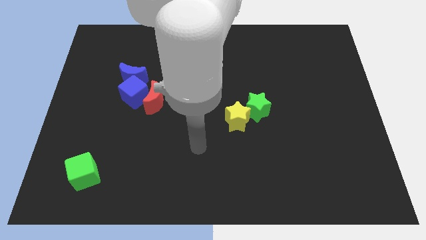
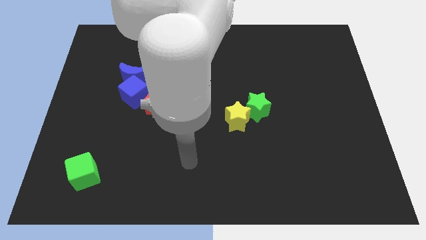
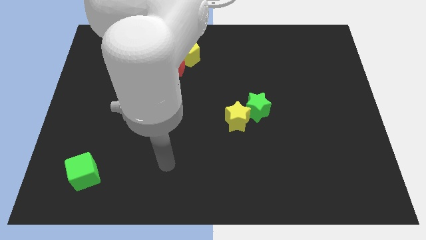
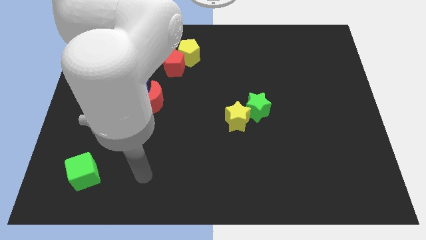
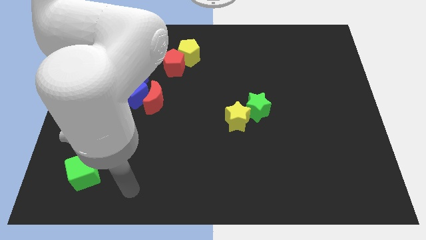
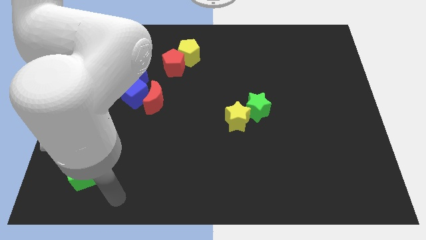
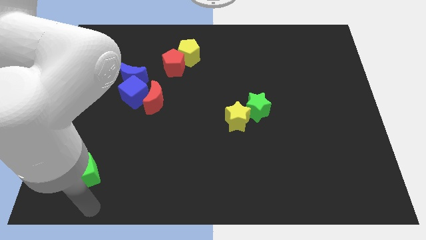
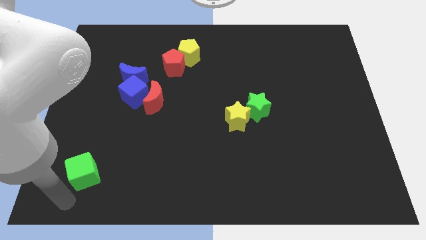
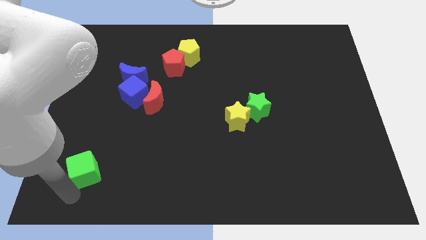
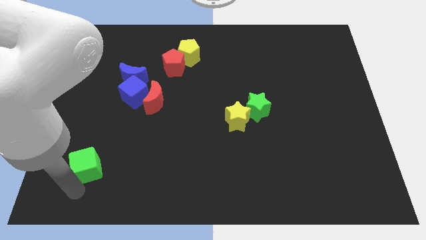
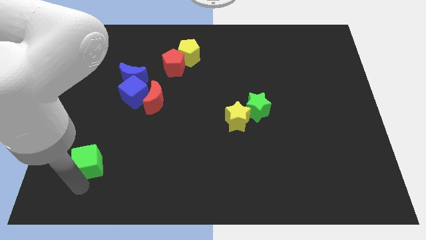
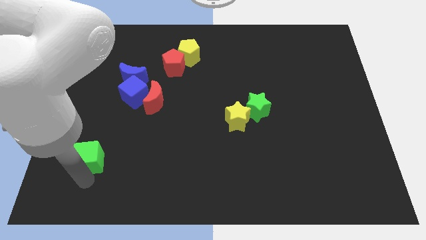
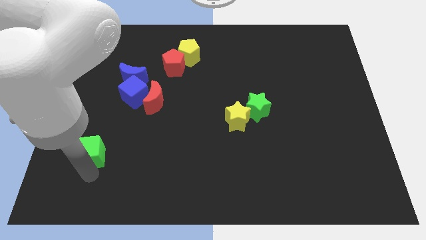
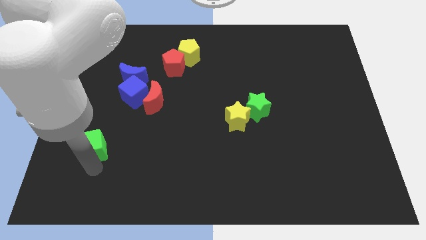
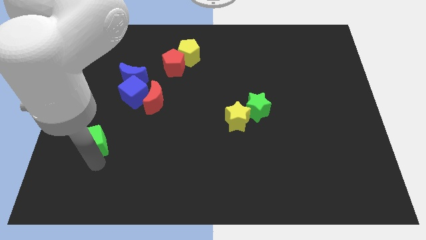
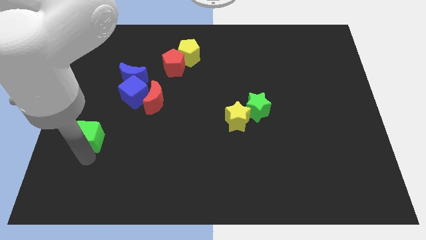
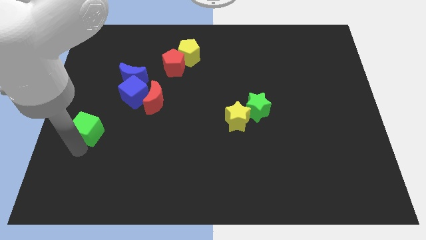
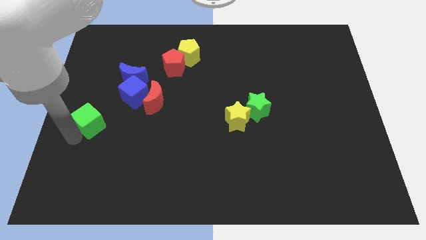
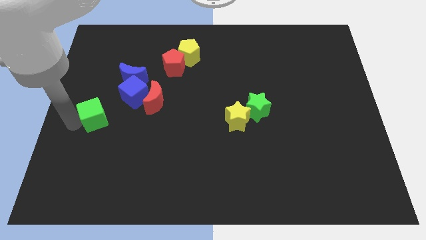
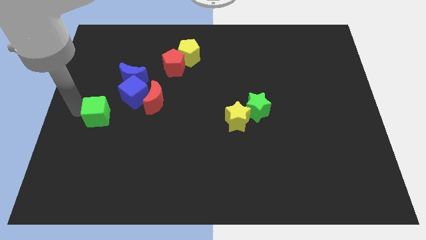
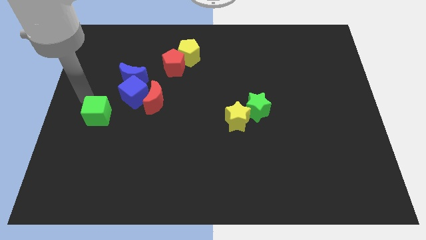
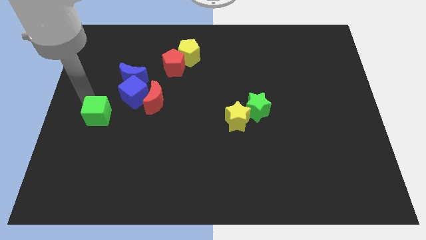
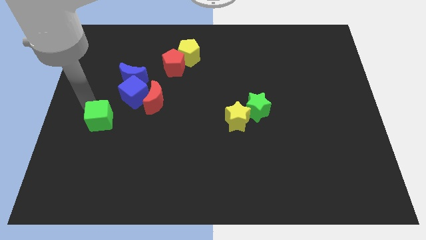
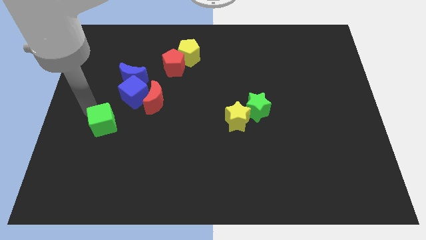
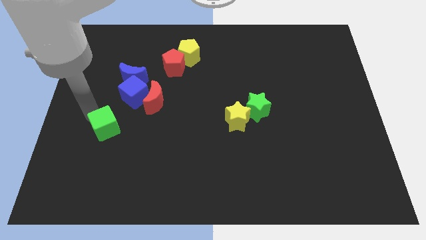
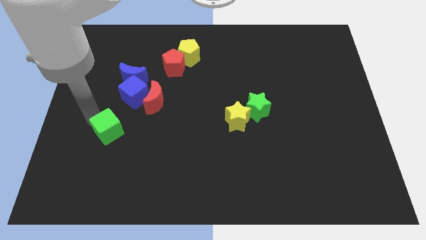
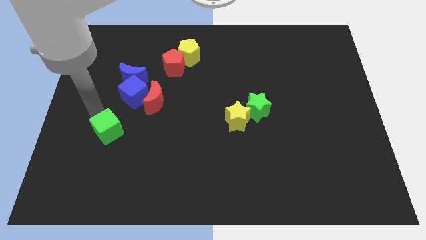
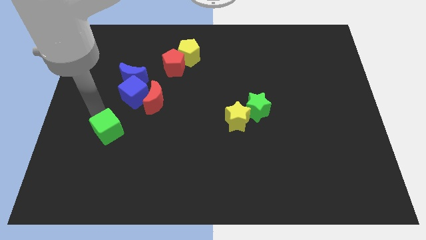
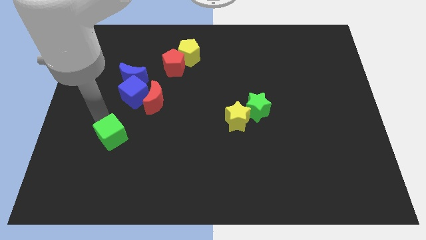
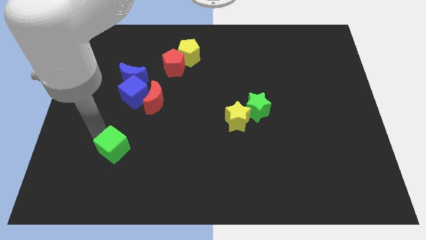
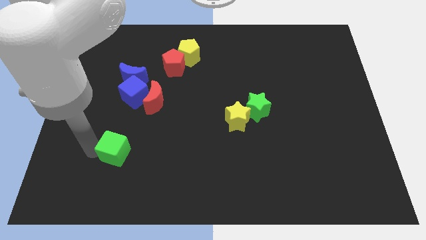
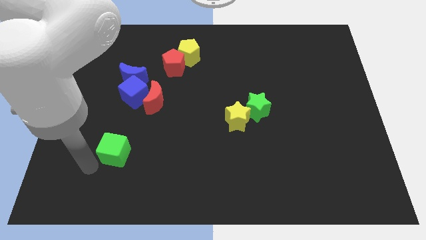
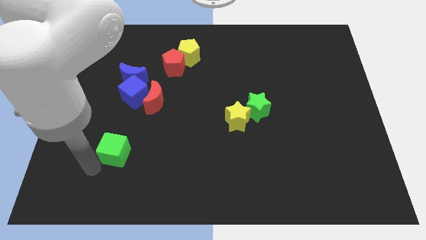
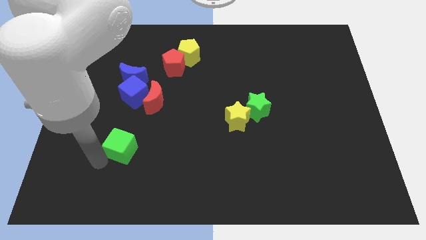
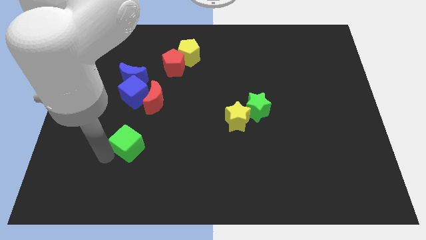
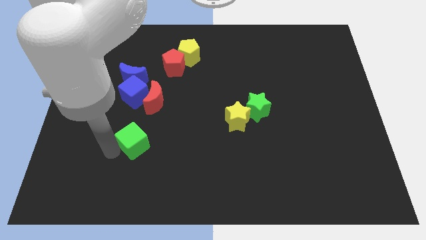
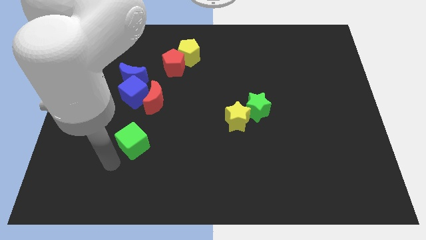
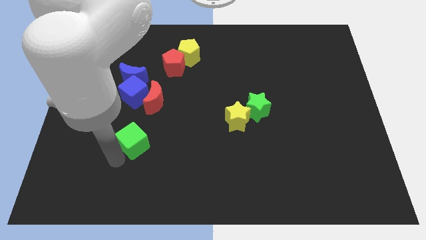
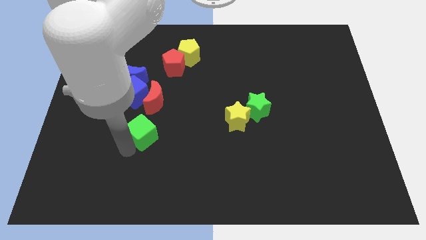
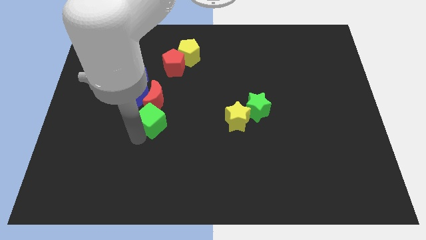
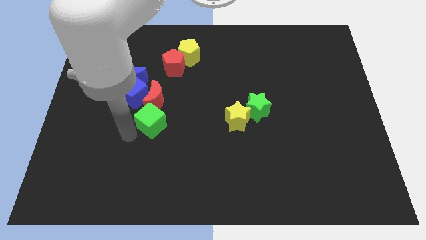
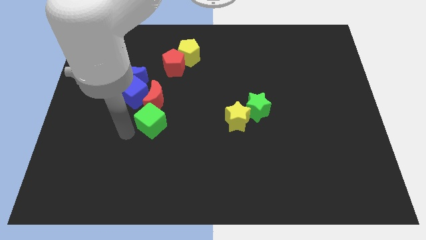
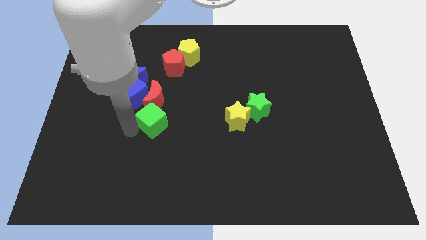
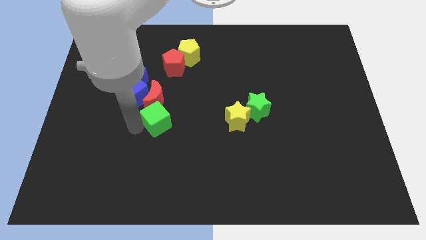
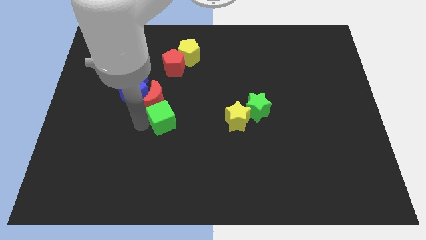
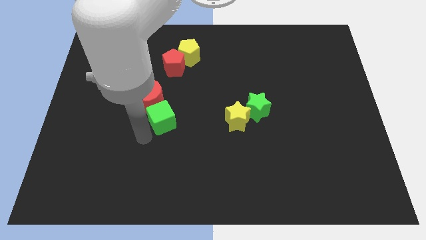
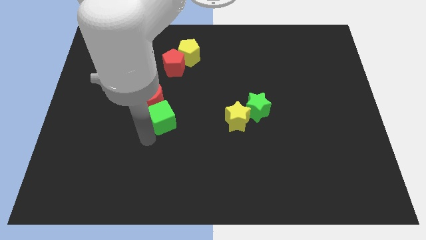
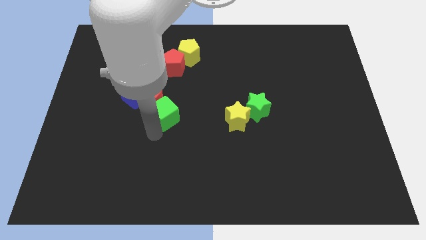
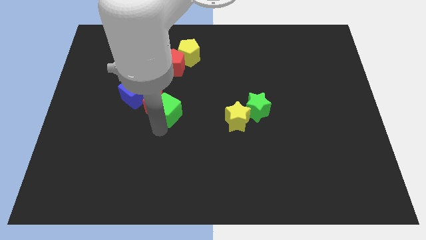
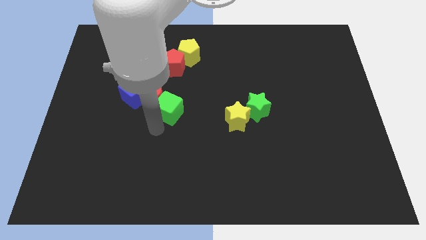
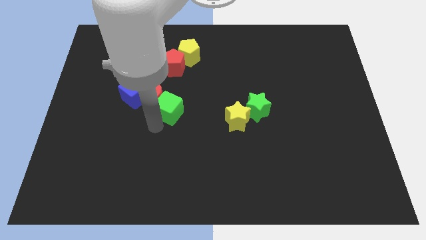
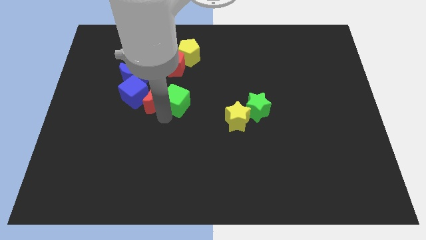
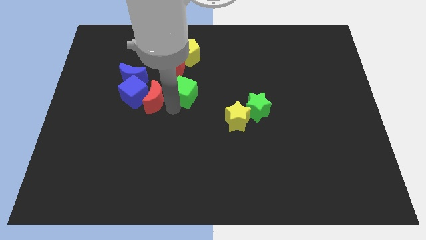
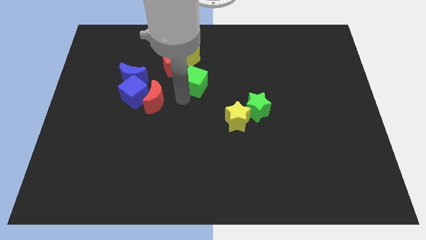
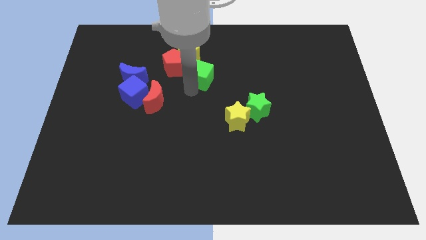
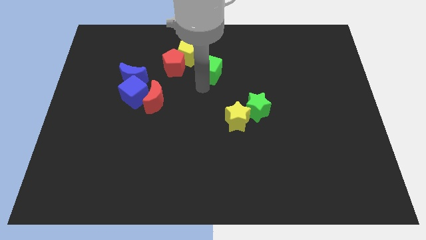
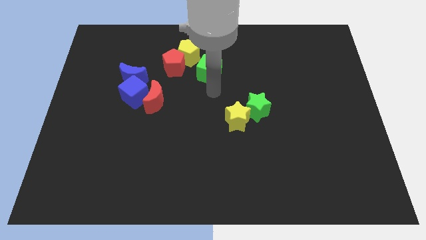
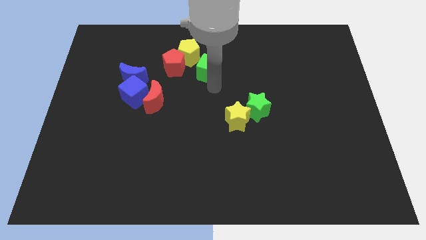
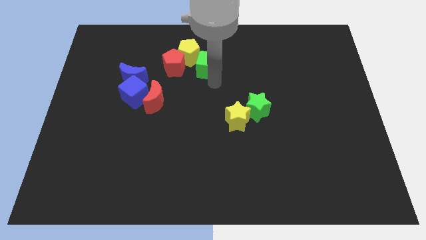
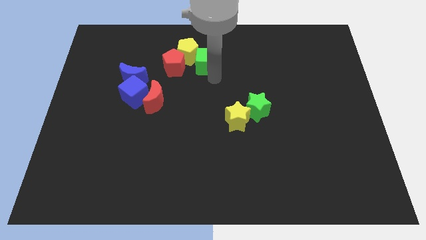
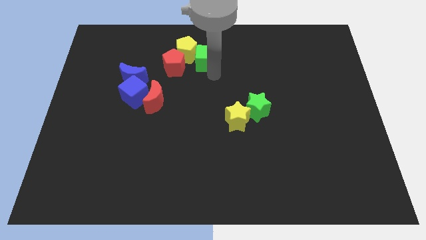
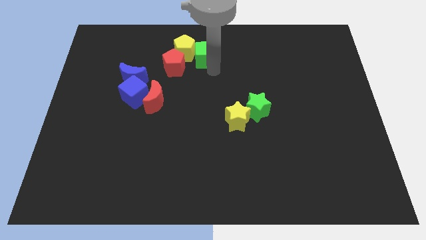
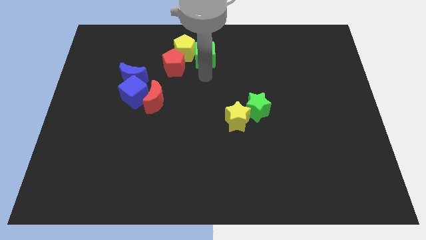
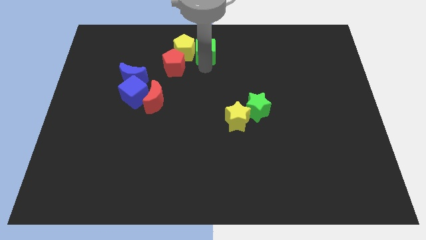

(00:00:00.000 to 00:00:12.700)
slide the green cube to the towards your base
